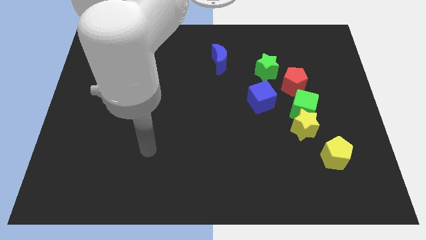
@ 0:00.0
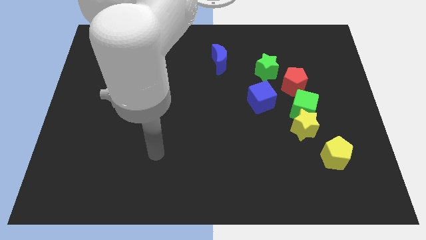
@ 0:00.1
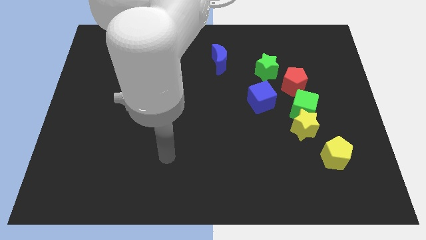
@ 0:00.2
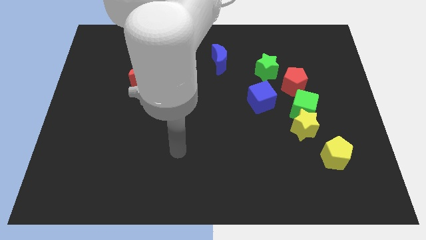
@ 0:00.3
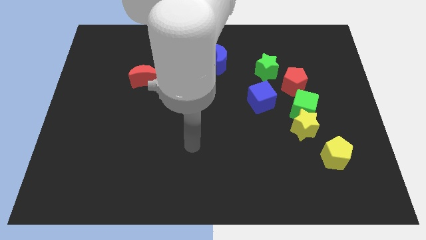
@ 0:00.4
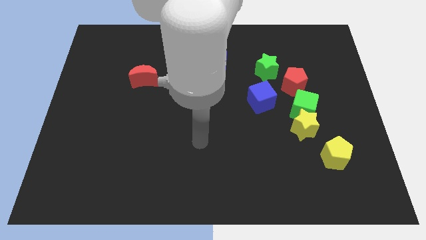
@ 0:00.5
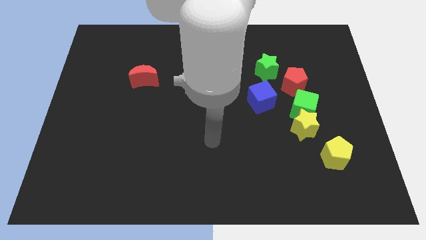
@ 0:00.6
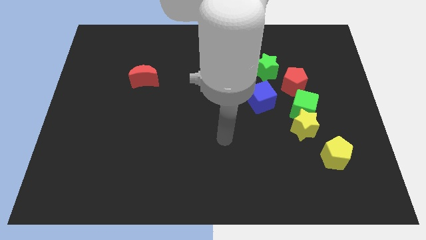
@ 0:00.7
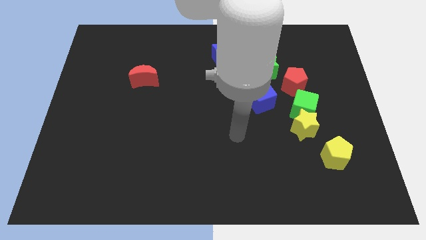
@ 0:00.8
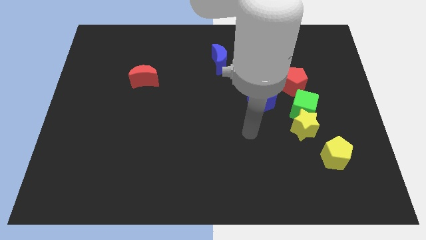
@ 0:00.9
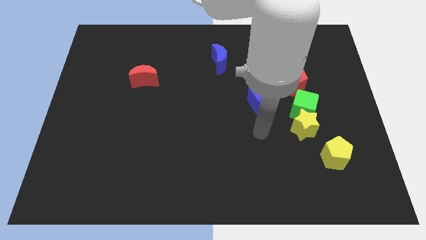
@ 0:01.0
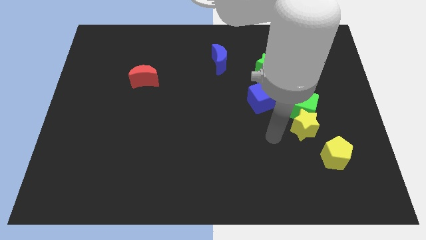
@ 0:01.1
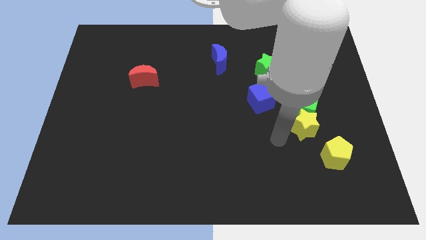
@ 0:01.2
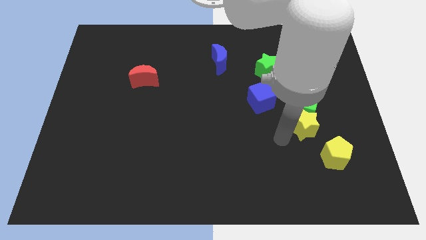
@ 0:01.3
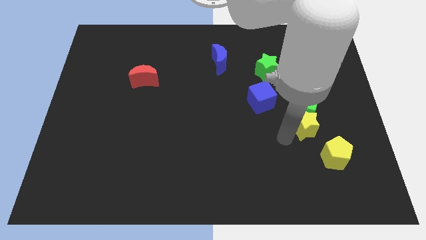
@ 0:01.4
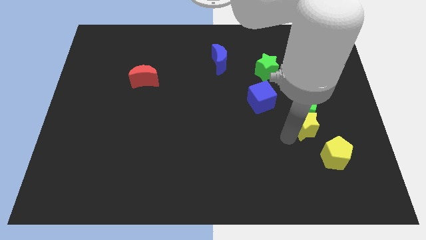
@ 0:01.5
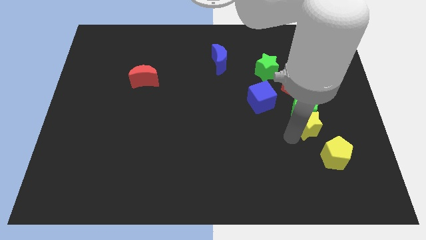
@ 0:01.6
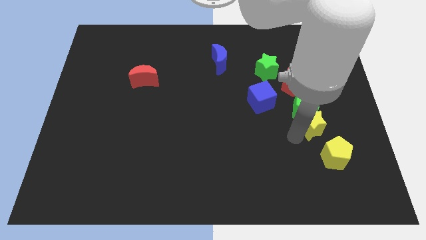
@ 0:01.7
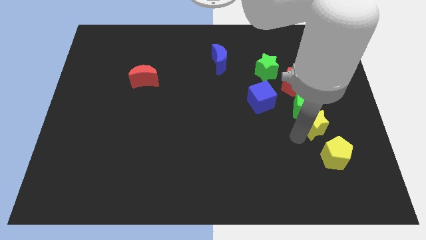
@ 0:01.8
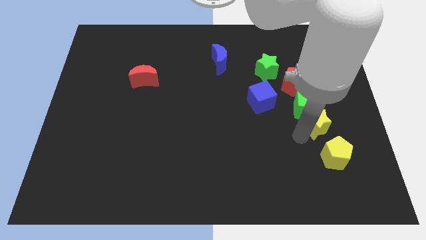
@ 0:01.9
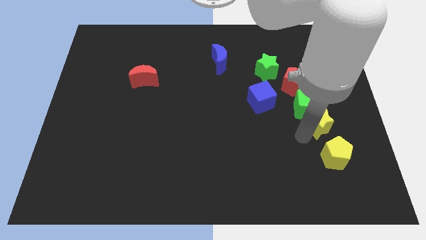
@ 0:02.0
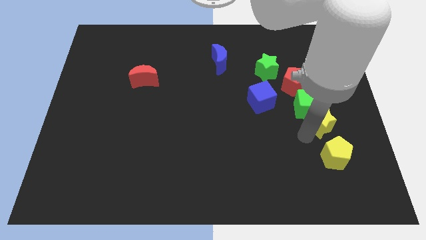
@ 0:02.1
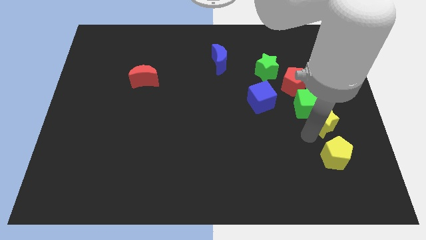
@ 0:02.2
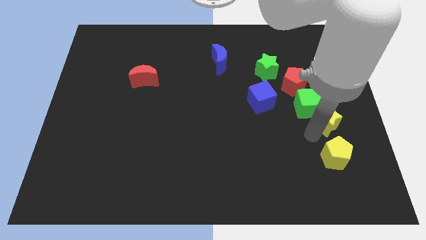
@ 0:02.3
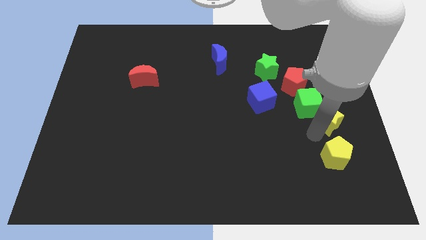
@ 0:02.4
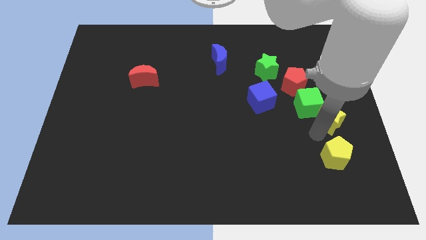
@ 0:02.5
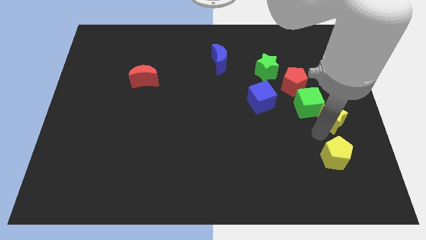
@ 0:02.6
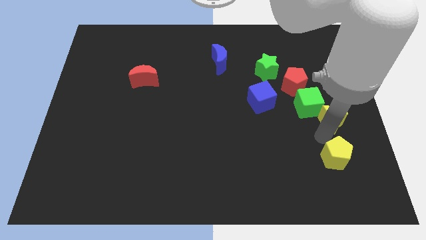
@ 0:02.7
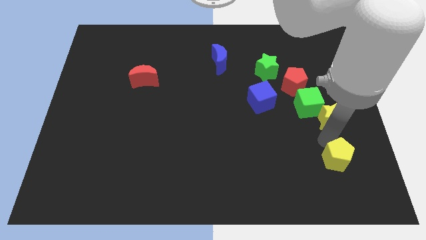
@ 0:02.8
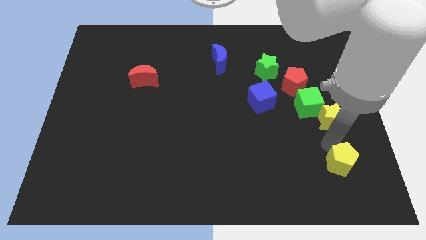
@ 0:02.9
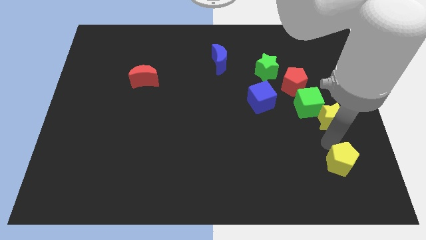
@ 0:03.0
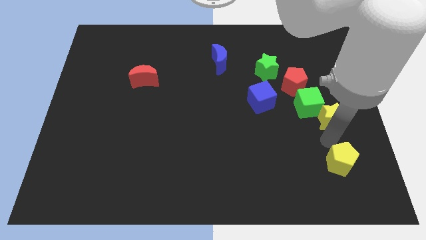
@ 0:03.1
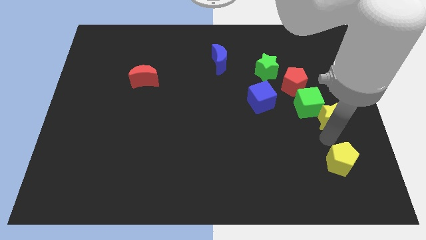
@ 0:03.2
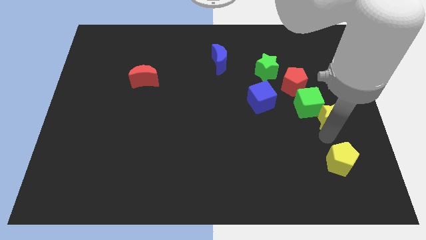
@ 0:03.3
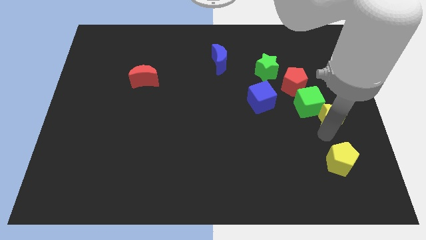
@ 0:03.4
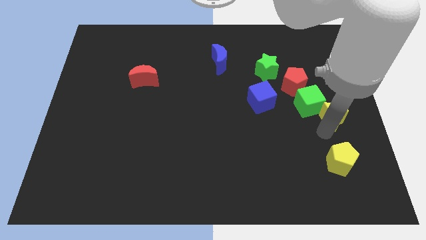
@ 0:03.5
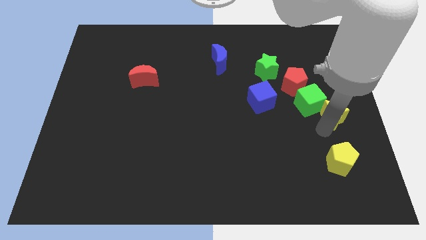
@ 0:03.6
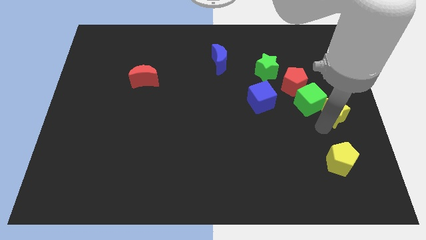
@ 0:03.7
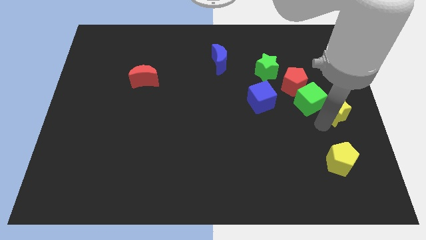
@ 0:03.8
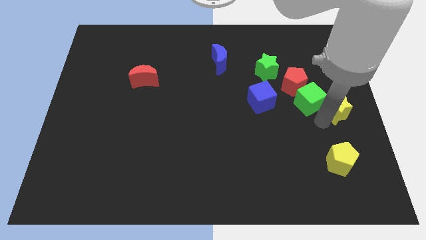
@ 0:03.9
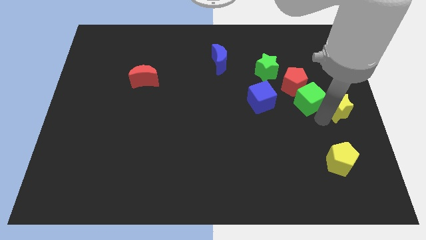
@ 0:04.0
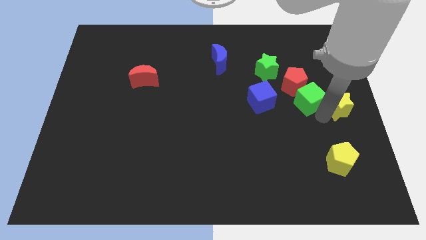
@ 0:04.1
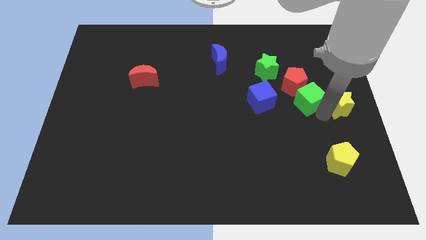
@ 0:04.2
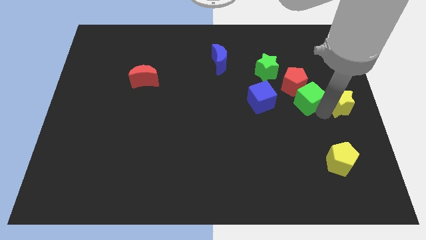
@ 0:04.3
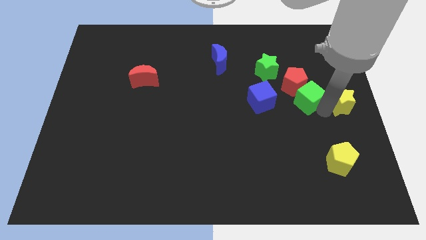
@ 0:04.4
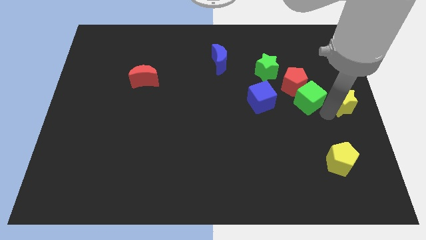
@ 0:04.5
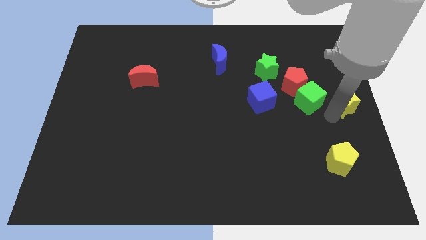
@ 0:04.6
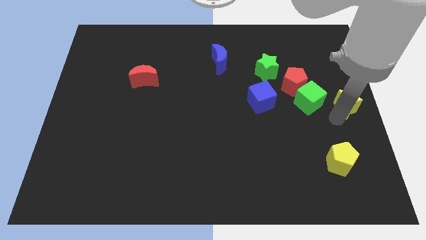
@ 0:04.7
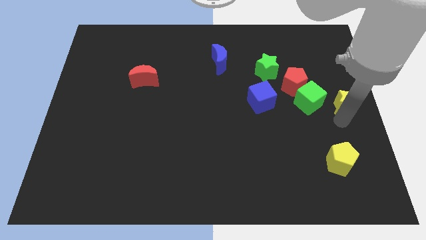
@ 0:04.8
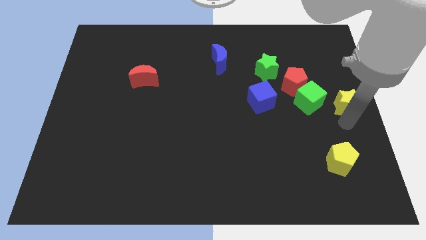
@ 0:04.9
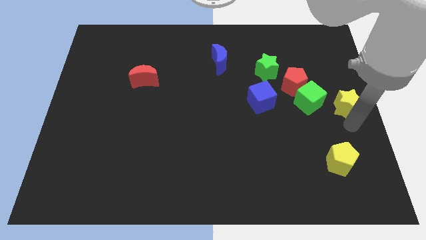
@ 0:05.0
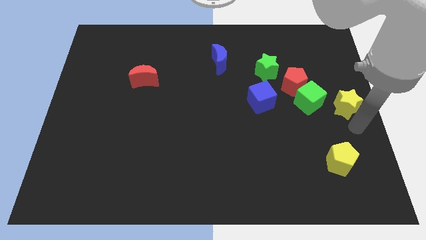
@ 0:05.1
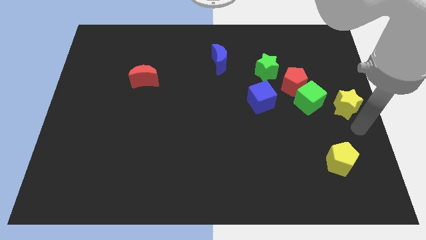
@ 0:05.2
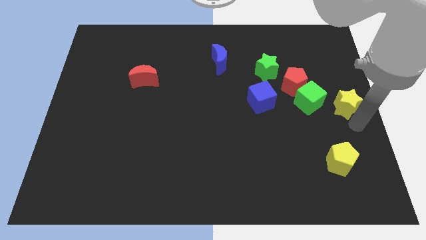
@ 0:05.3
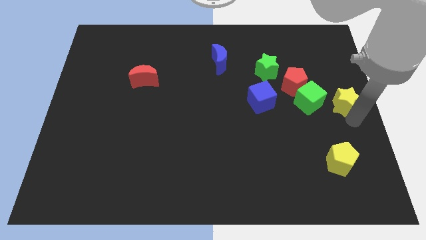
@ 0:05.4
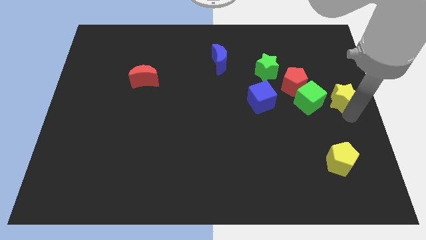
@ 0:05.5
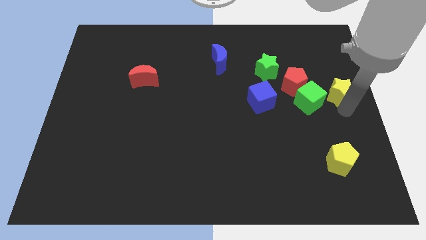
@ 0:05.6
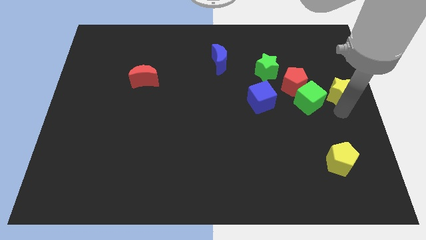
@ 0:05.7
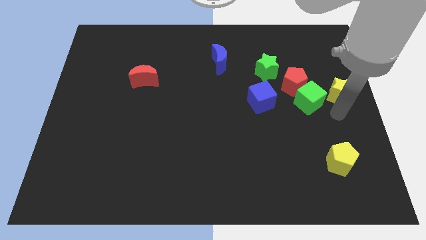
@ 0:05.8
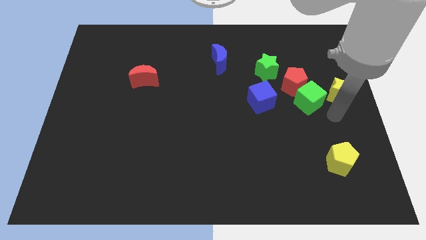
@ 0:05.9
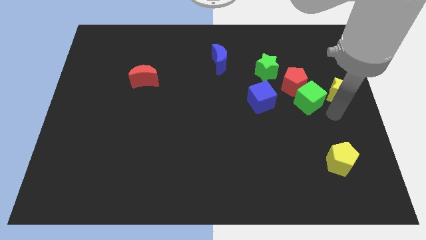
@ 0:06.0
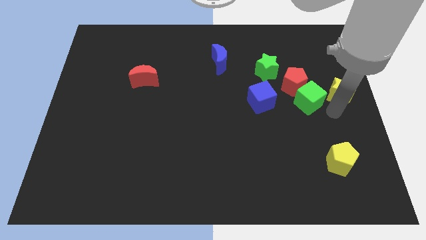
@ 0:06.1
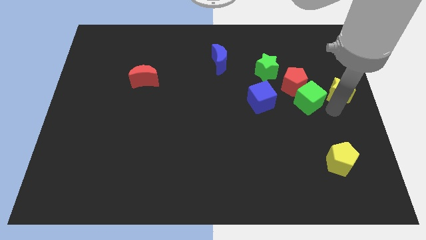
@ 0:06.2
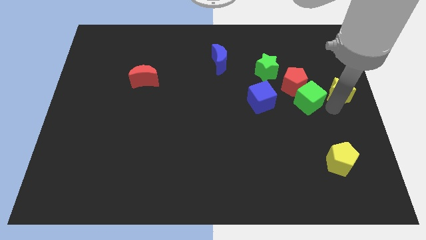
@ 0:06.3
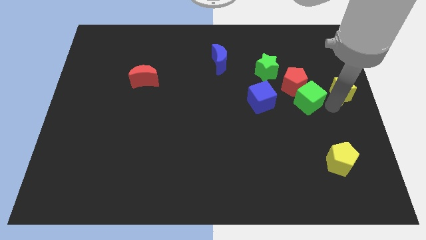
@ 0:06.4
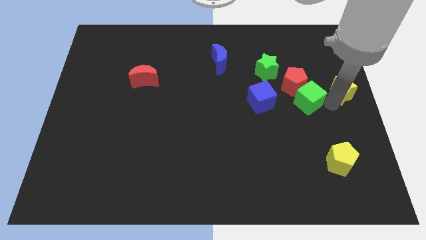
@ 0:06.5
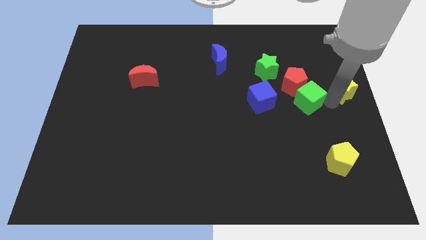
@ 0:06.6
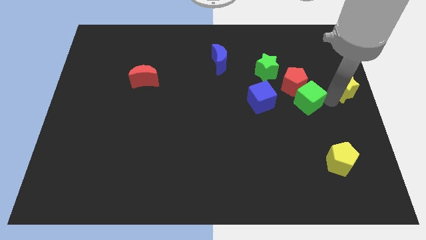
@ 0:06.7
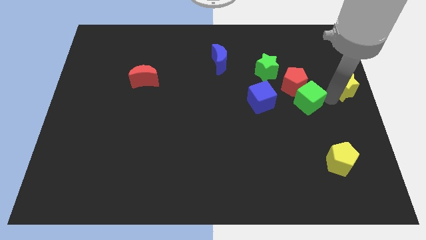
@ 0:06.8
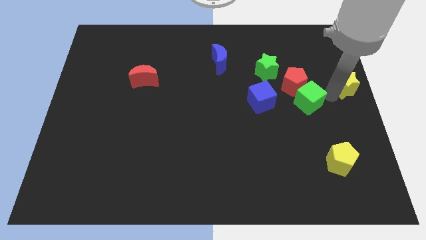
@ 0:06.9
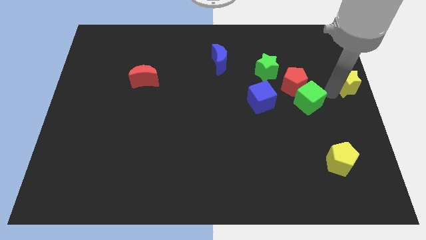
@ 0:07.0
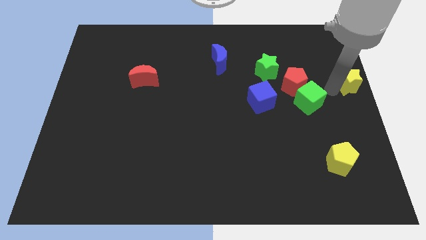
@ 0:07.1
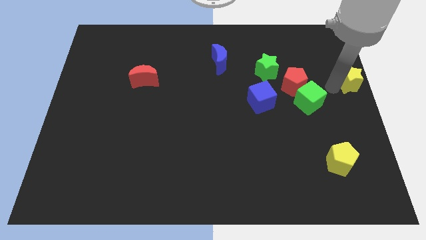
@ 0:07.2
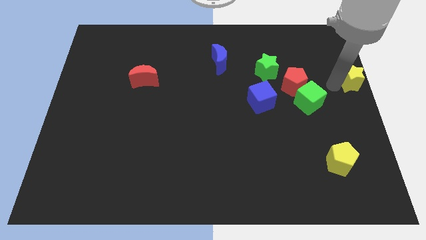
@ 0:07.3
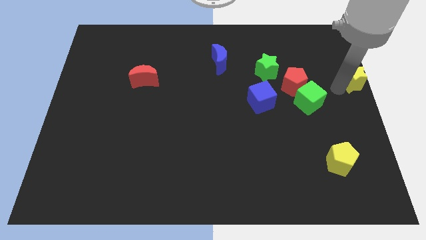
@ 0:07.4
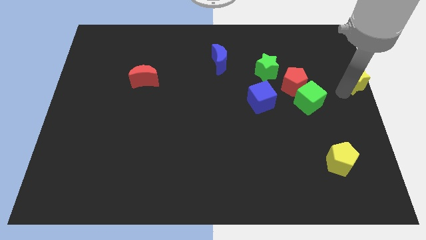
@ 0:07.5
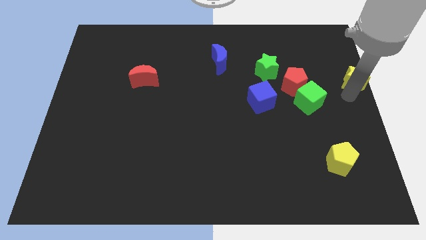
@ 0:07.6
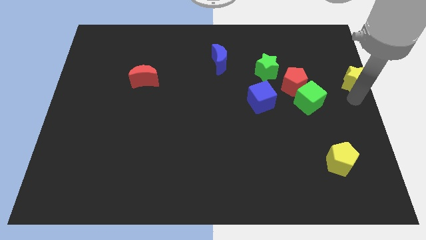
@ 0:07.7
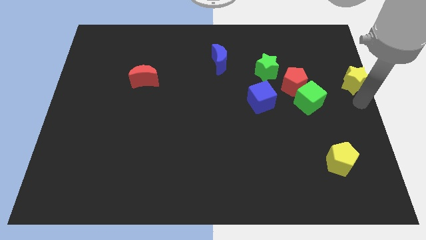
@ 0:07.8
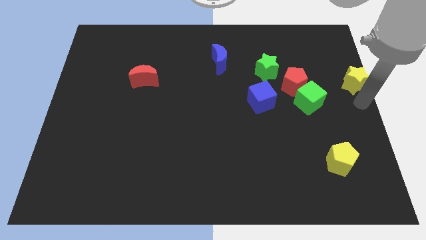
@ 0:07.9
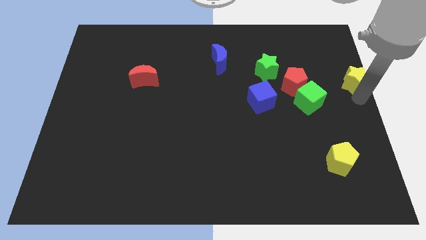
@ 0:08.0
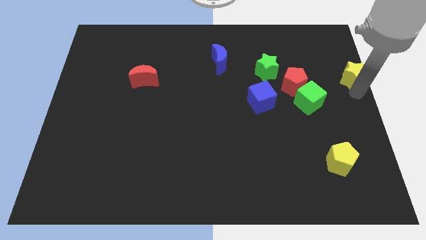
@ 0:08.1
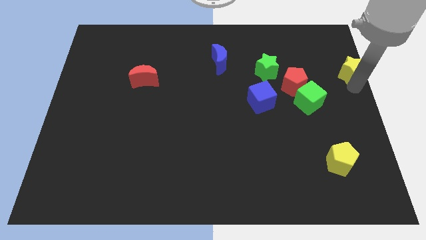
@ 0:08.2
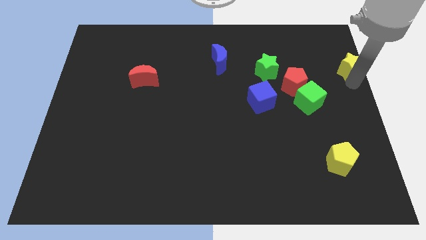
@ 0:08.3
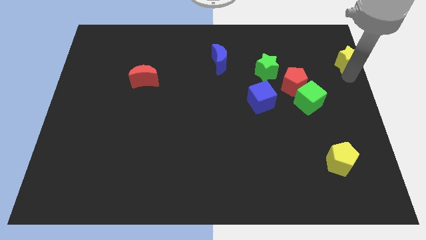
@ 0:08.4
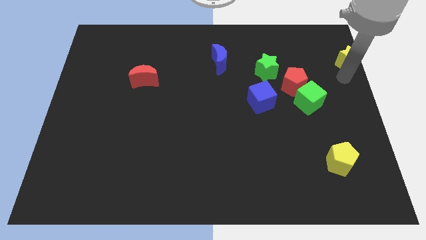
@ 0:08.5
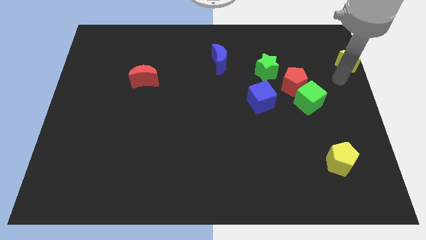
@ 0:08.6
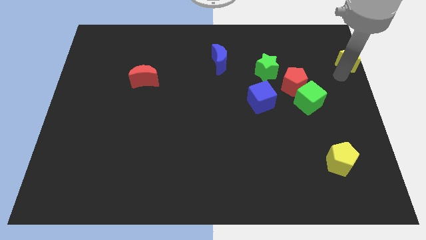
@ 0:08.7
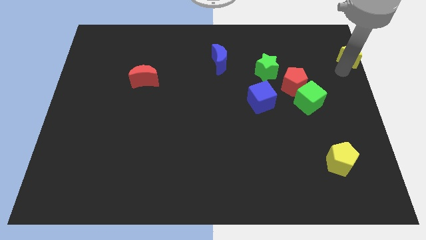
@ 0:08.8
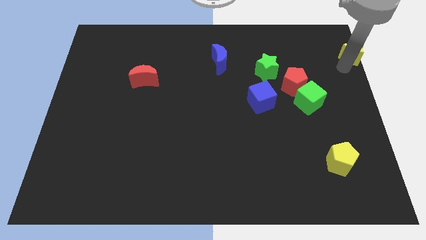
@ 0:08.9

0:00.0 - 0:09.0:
push the yellow star to the top right of the board
